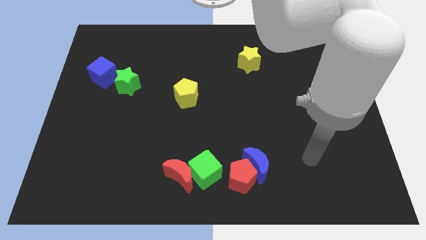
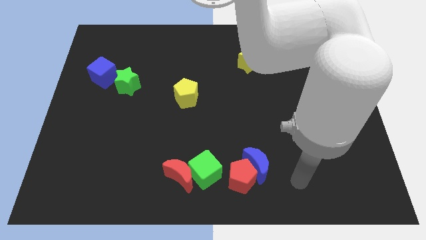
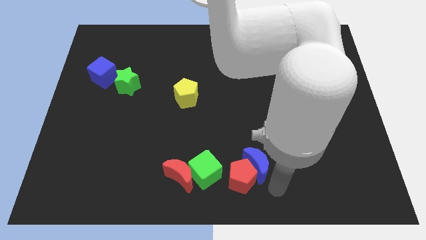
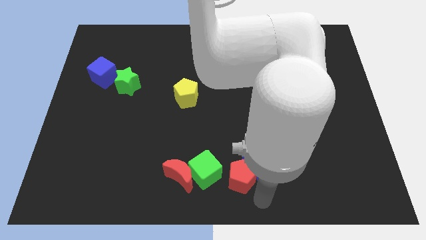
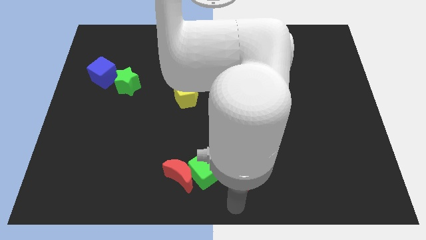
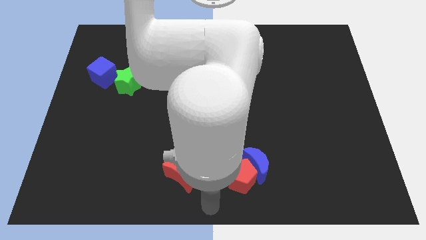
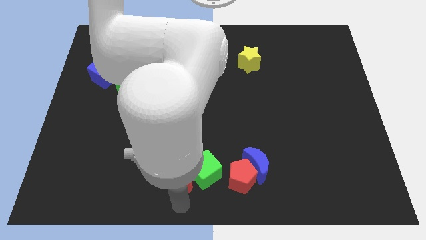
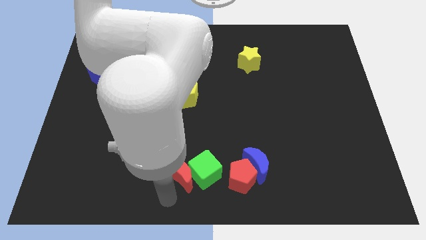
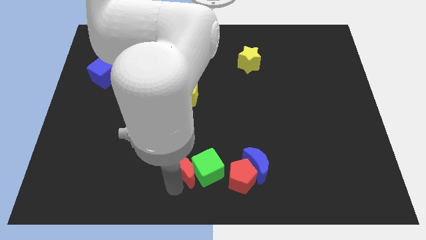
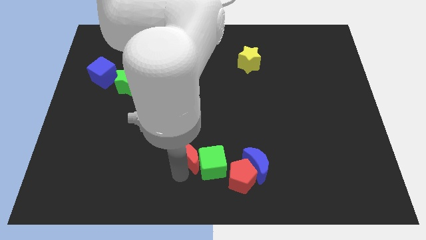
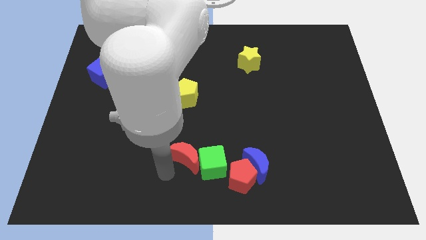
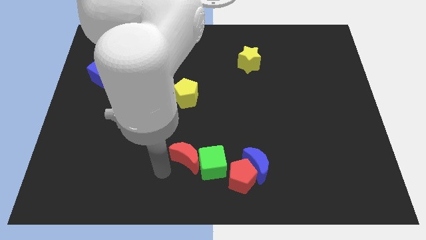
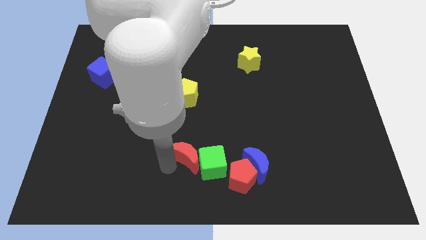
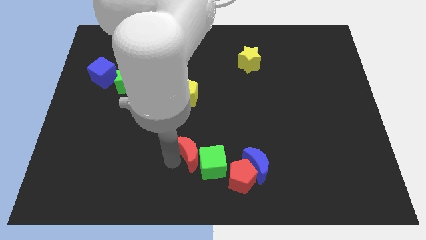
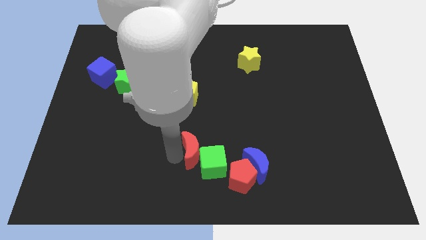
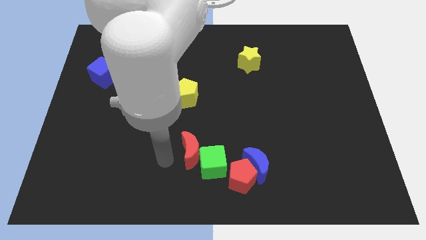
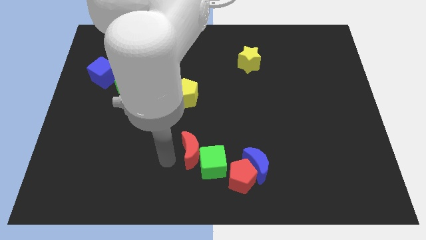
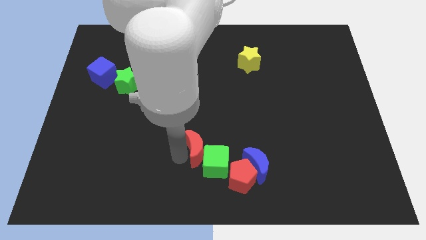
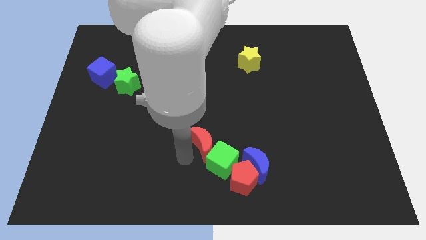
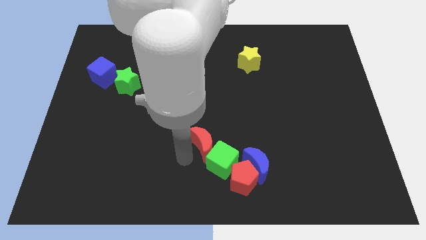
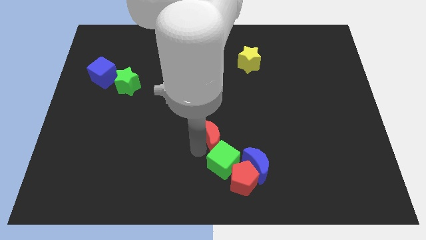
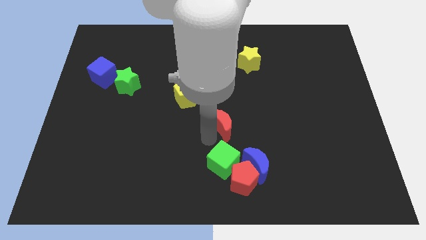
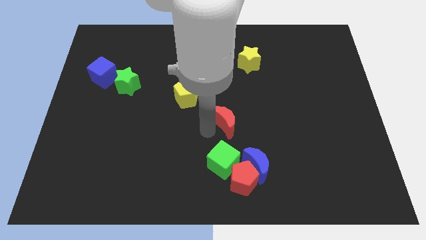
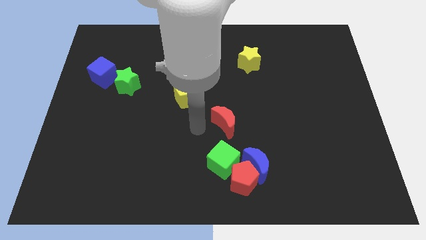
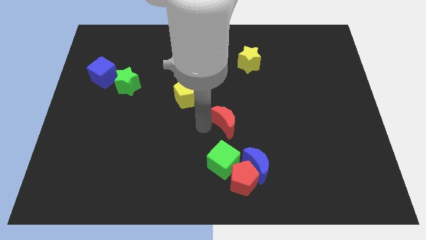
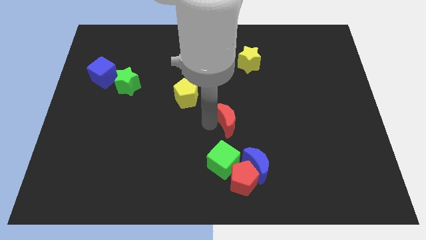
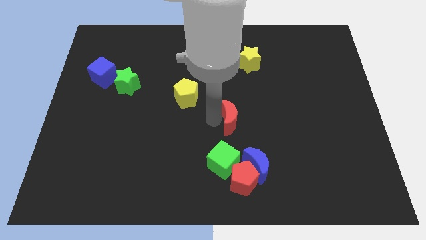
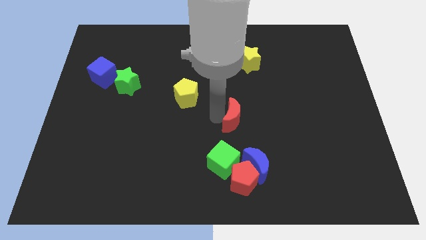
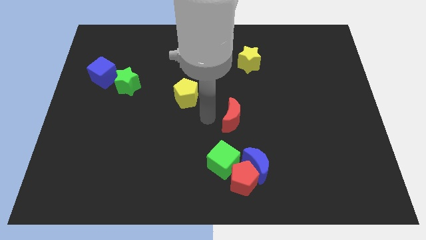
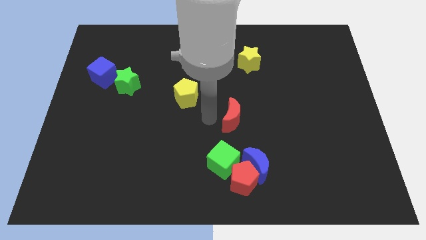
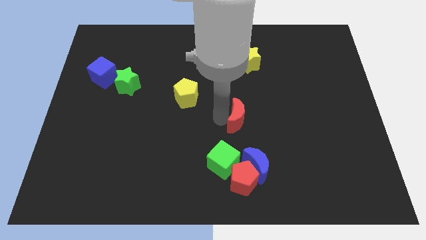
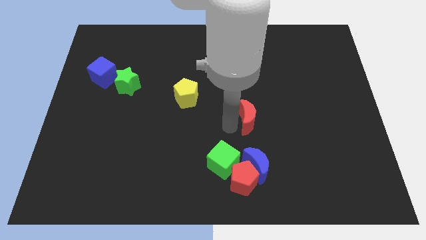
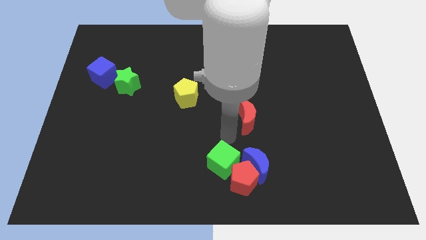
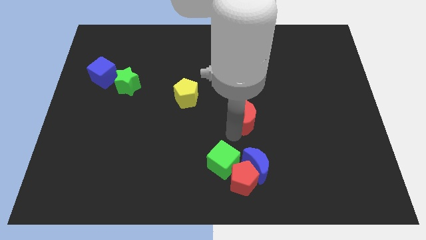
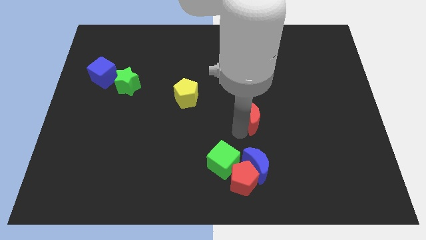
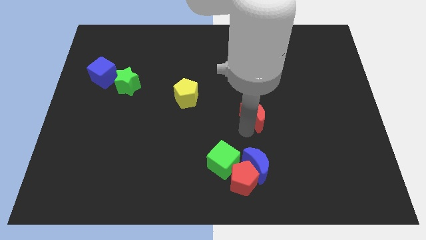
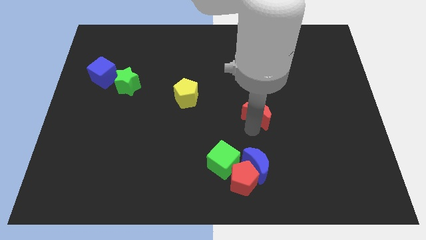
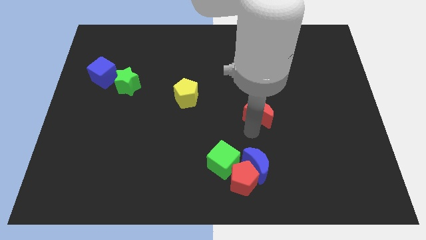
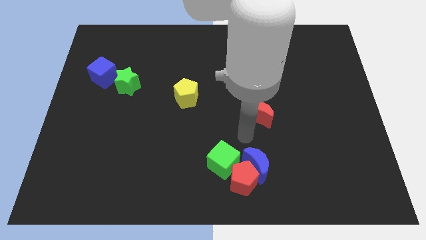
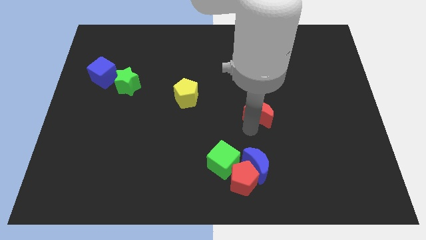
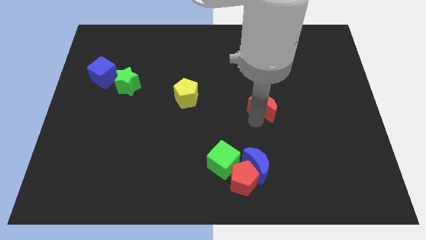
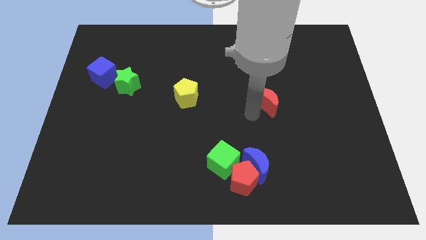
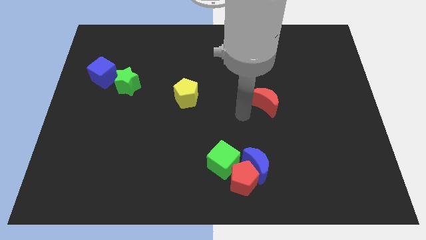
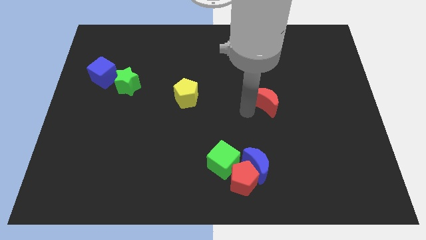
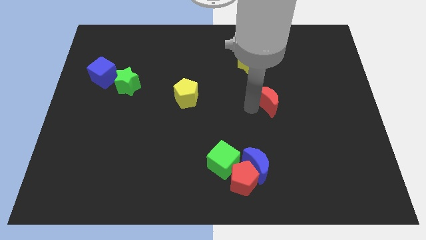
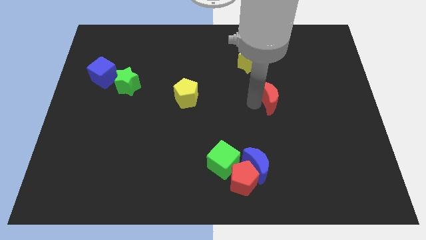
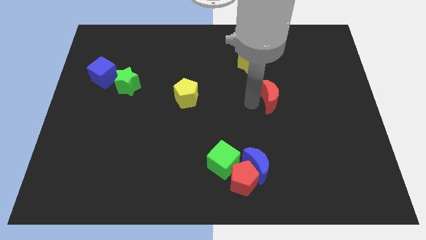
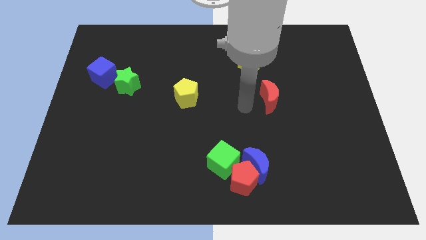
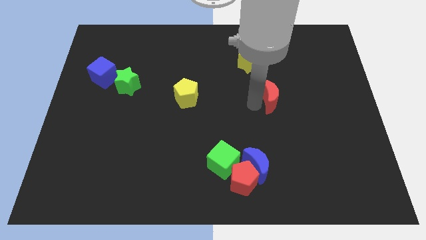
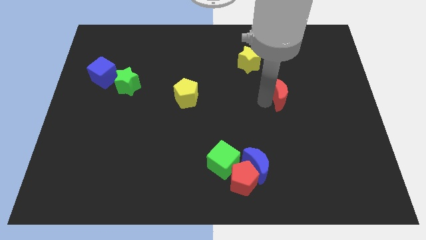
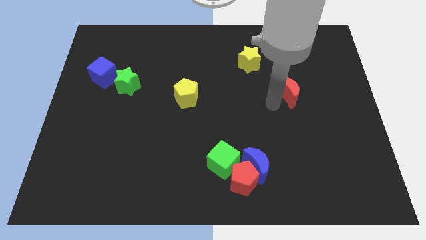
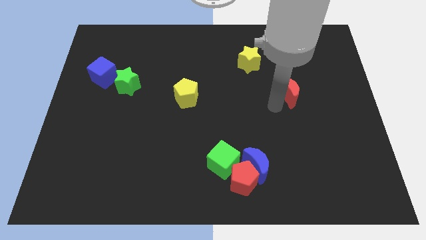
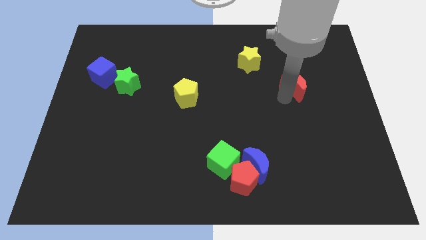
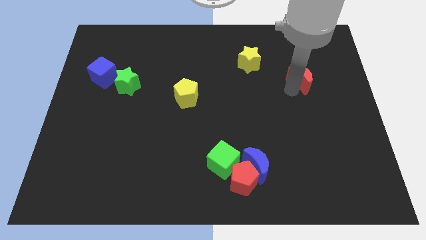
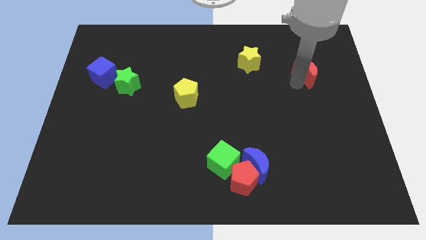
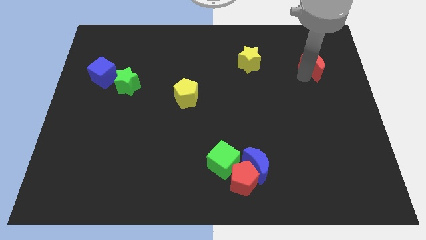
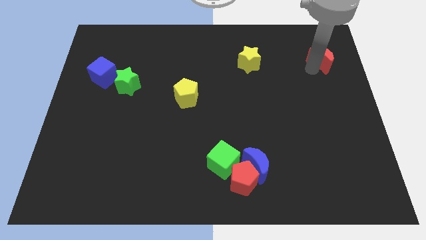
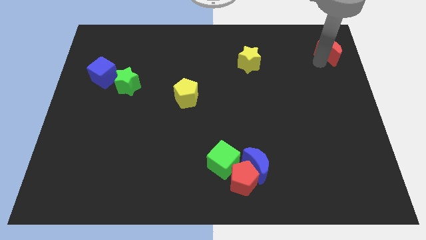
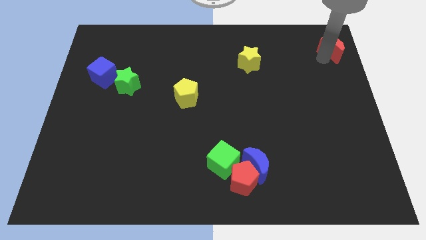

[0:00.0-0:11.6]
push the red moon to the top right corner
